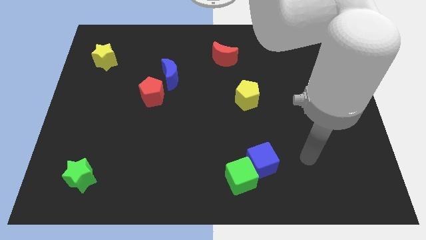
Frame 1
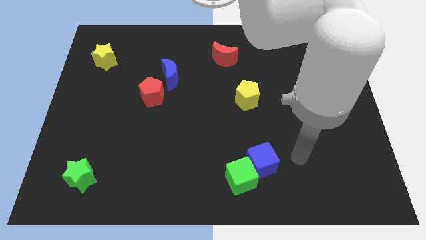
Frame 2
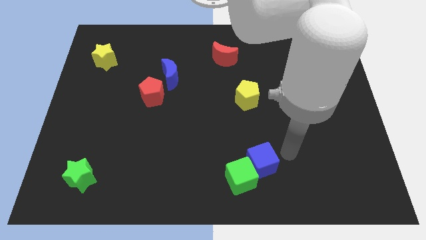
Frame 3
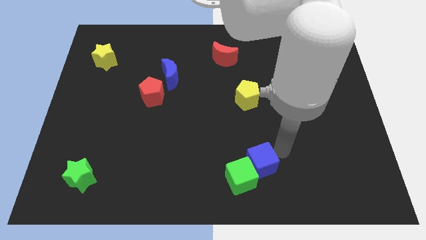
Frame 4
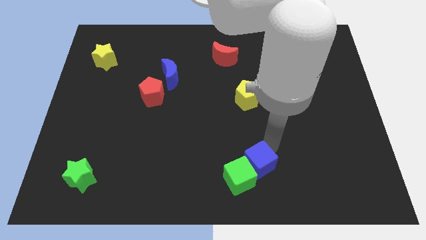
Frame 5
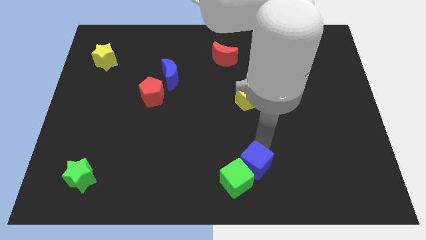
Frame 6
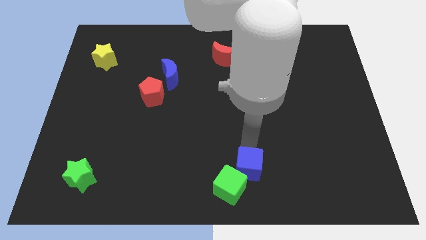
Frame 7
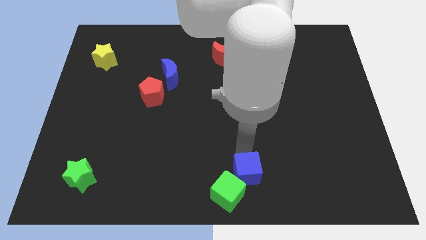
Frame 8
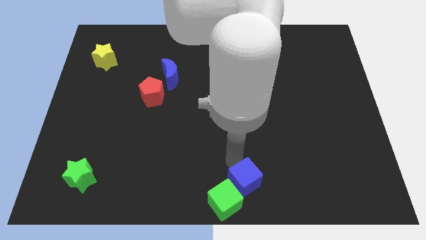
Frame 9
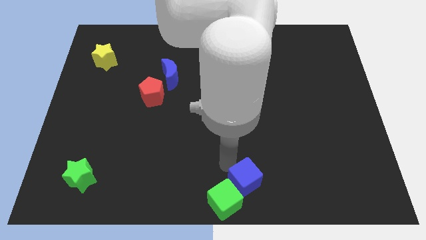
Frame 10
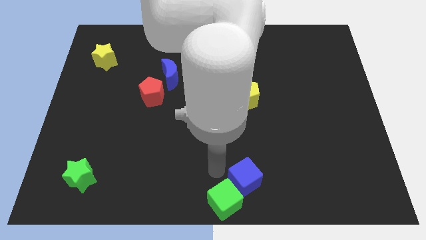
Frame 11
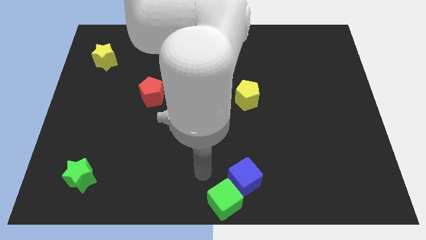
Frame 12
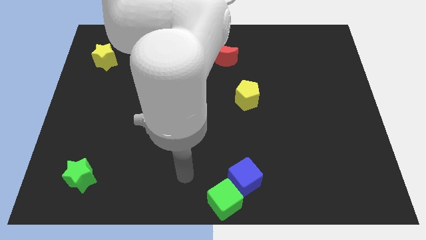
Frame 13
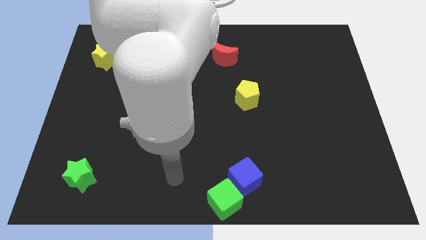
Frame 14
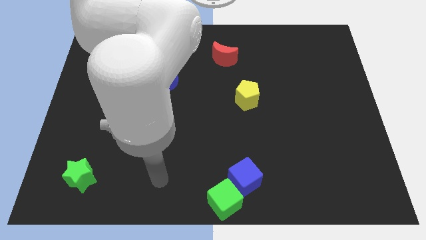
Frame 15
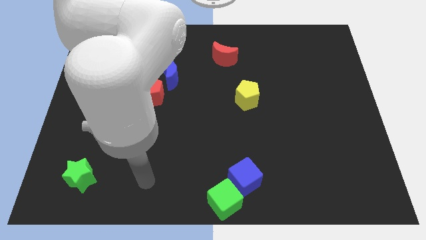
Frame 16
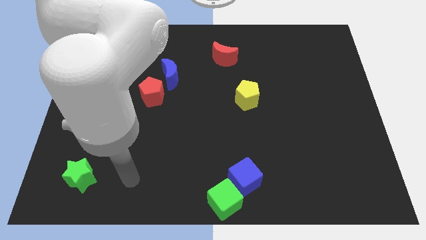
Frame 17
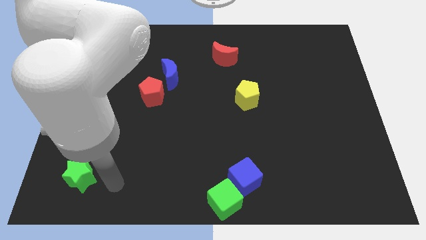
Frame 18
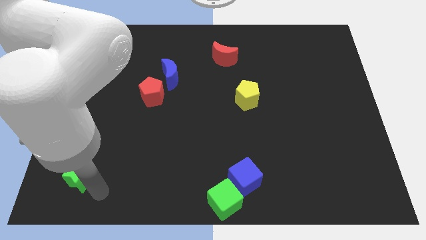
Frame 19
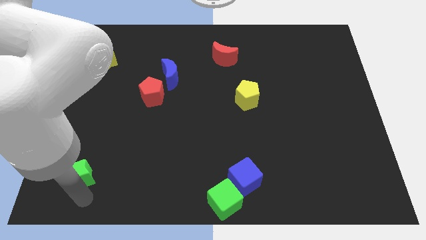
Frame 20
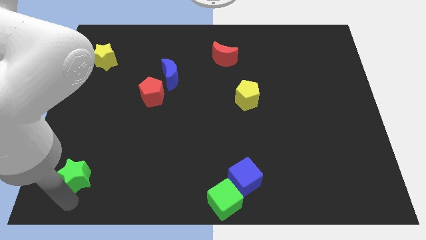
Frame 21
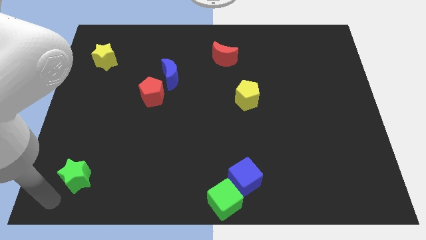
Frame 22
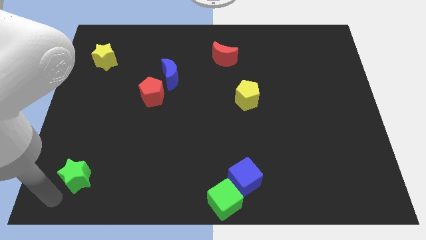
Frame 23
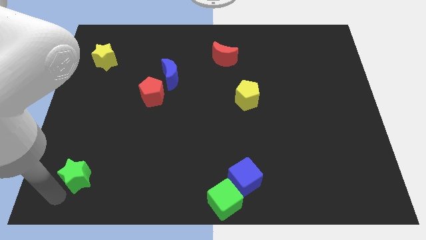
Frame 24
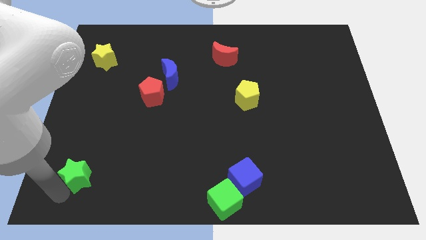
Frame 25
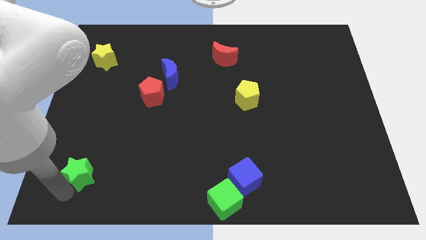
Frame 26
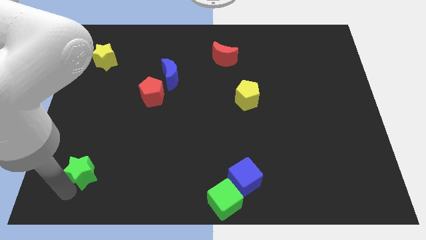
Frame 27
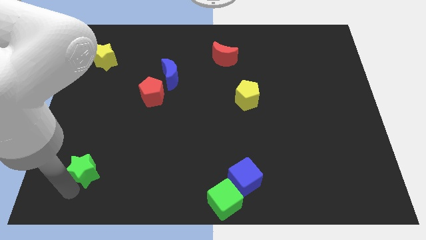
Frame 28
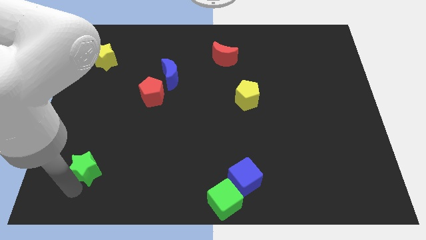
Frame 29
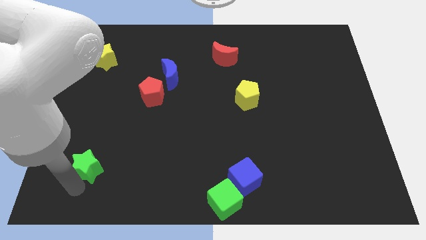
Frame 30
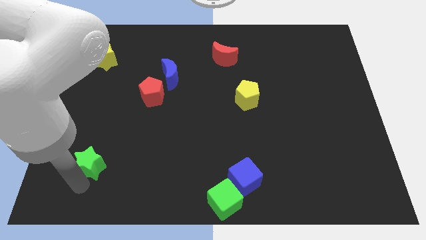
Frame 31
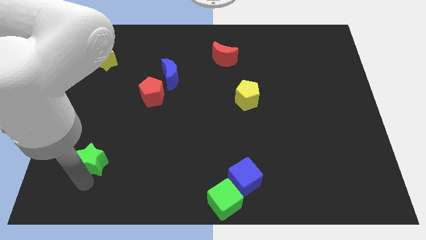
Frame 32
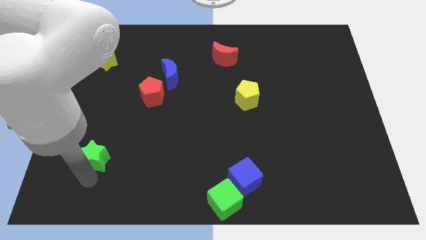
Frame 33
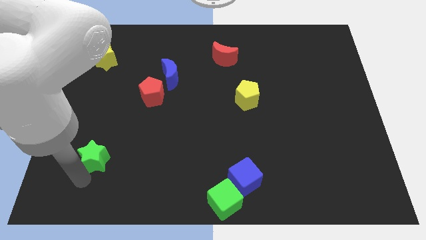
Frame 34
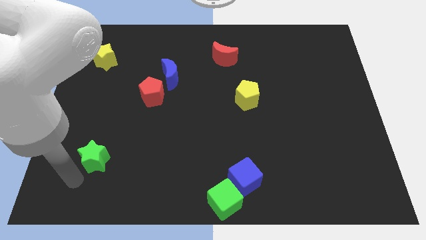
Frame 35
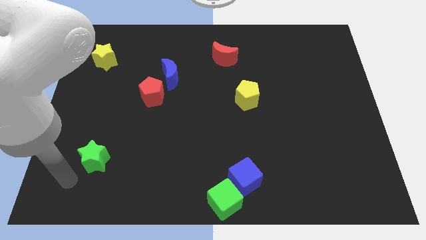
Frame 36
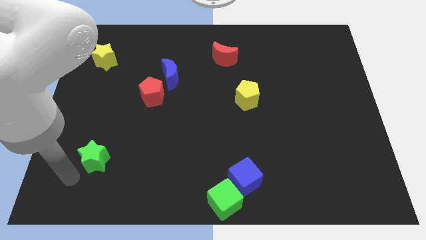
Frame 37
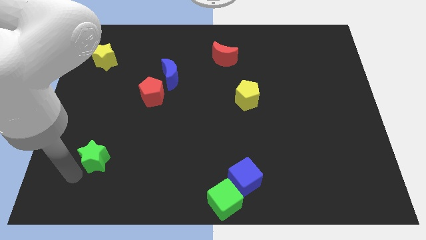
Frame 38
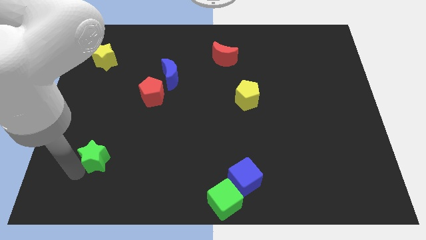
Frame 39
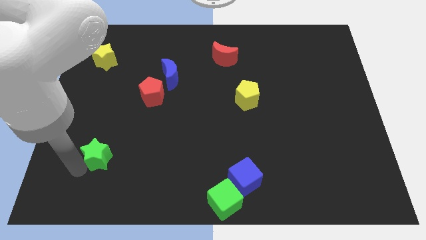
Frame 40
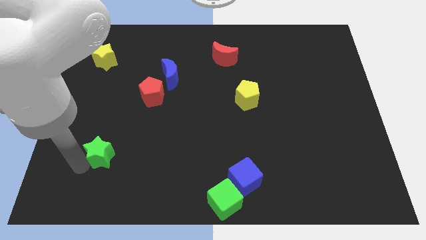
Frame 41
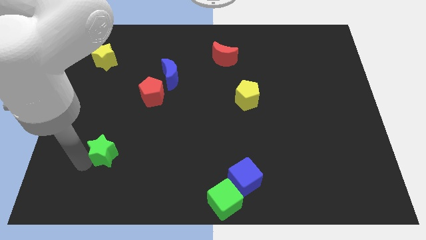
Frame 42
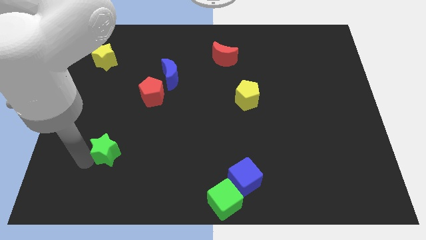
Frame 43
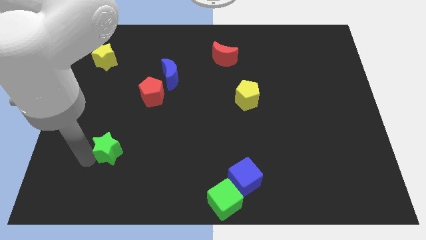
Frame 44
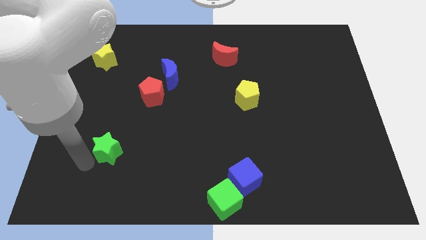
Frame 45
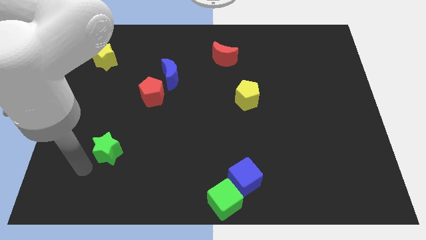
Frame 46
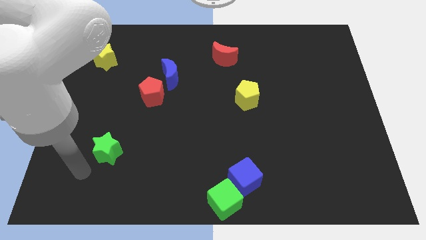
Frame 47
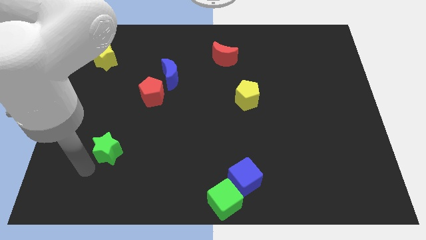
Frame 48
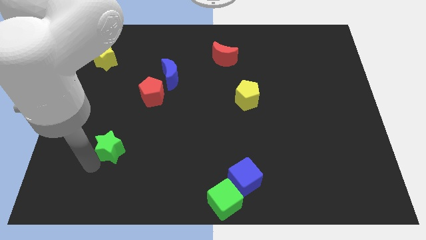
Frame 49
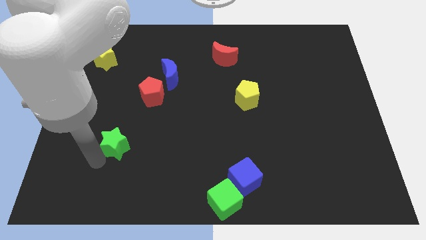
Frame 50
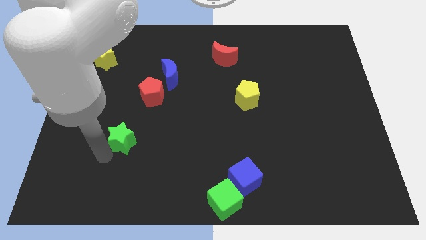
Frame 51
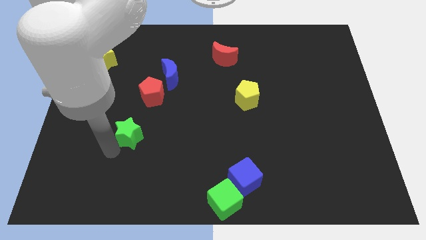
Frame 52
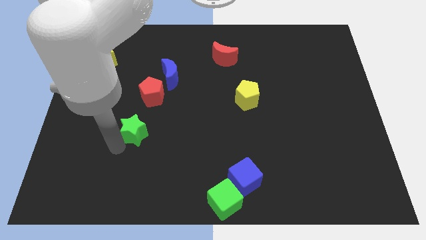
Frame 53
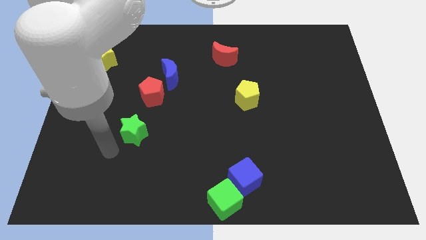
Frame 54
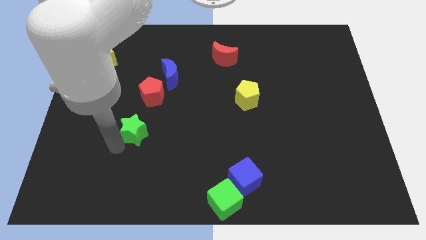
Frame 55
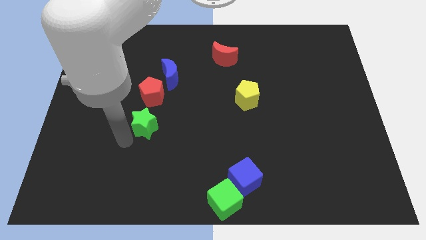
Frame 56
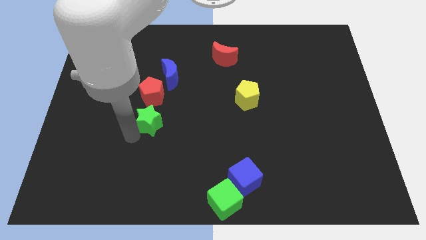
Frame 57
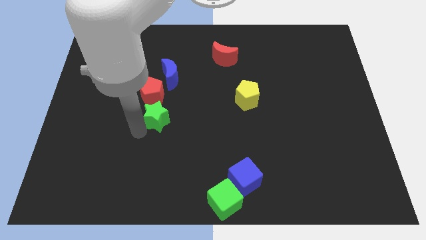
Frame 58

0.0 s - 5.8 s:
push the green star to the bottom side of the blue moon
